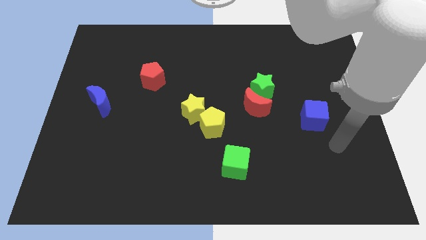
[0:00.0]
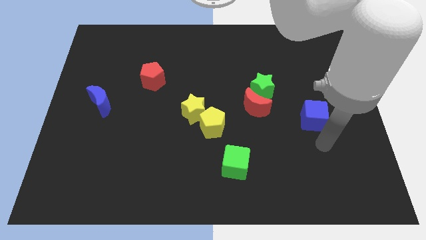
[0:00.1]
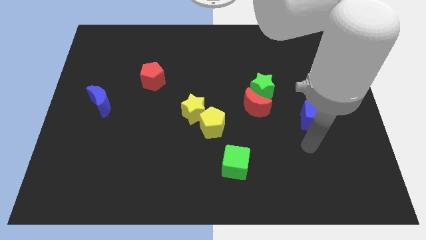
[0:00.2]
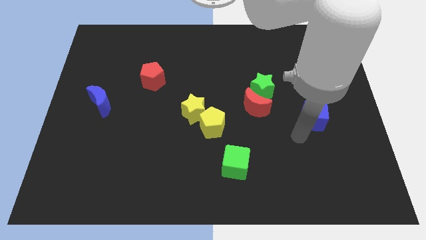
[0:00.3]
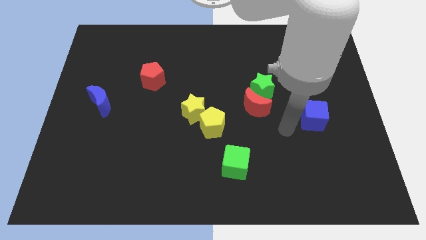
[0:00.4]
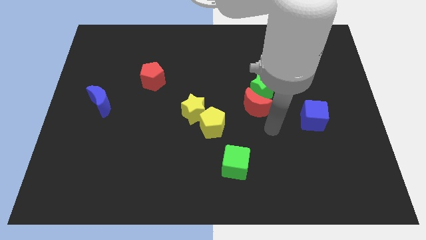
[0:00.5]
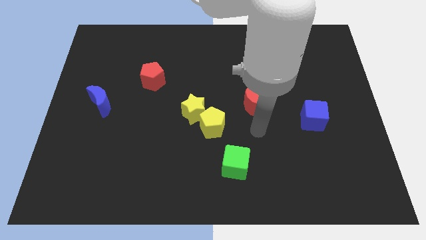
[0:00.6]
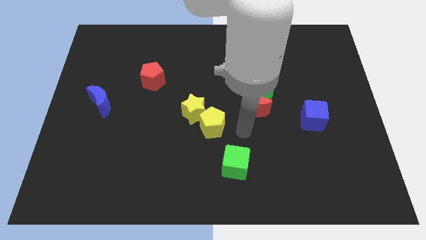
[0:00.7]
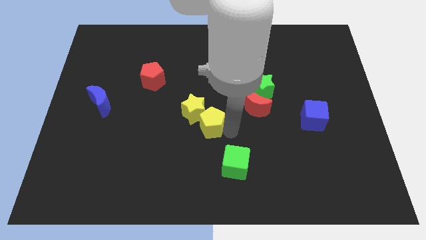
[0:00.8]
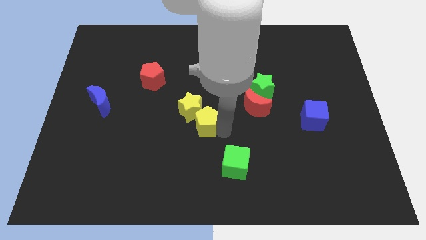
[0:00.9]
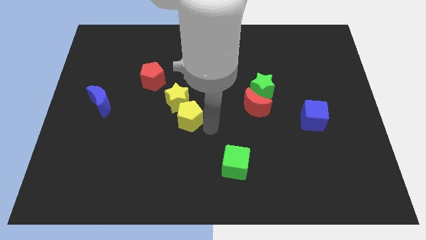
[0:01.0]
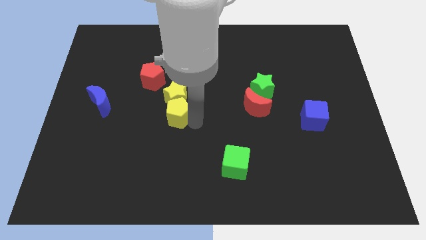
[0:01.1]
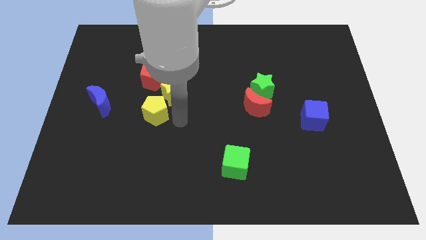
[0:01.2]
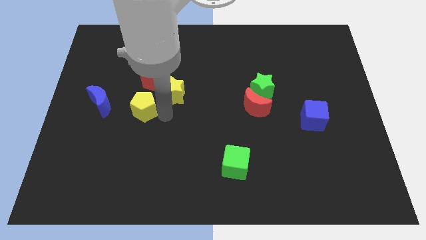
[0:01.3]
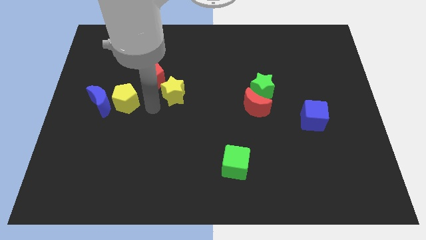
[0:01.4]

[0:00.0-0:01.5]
pull the yellow star apart from the yellow pentagon

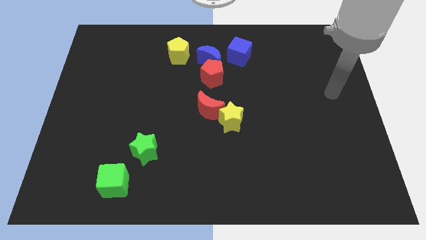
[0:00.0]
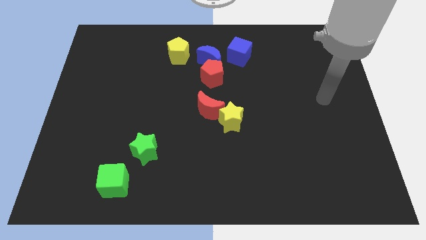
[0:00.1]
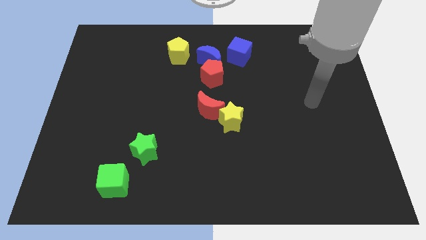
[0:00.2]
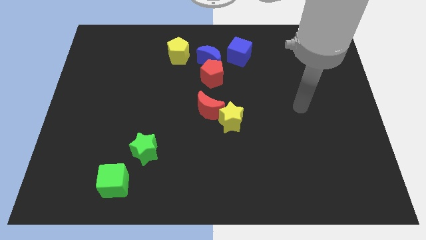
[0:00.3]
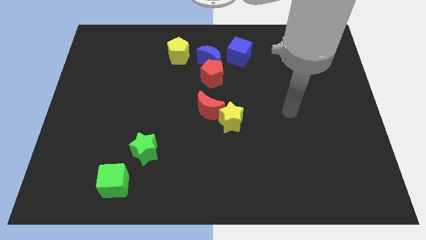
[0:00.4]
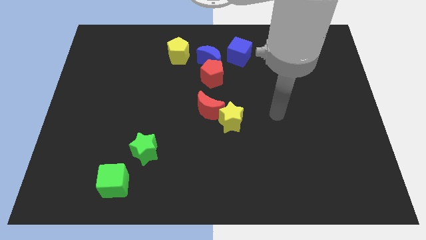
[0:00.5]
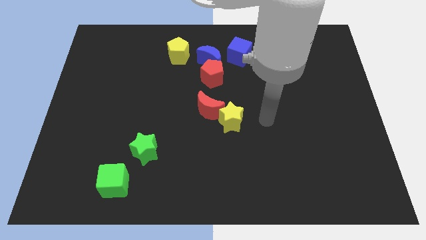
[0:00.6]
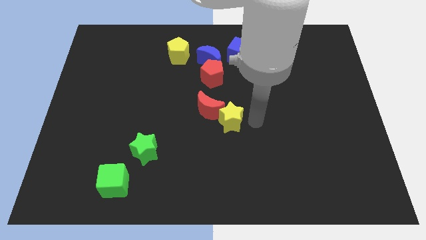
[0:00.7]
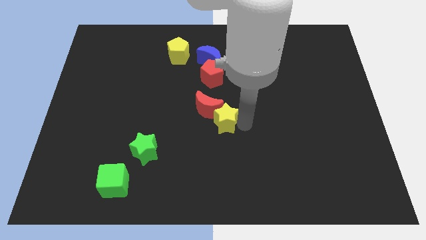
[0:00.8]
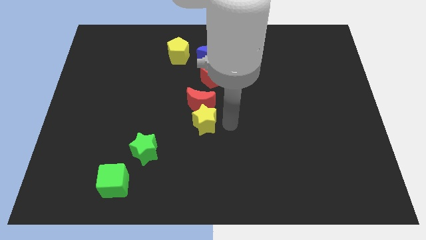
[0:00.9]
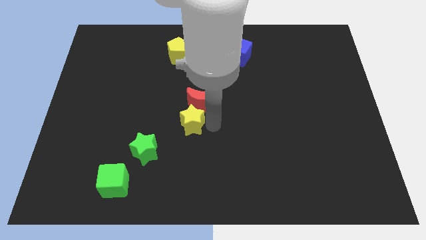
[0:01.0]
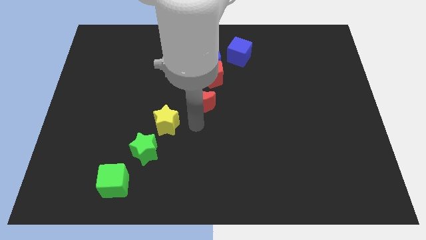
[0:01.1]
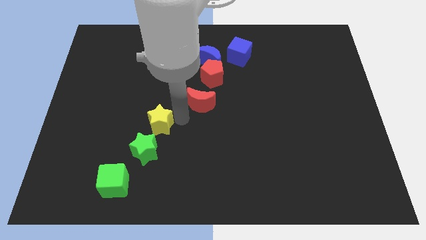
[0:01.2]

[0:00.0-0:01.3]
move the red moon away from the yellow star

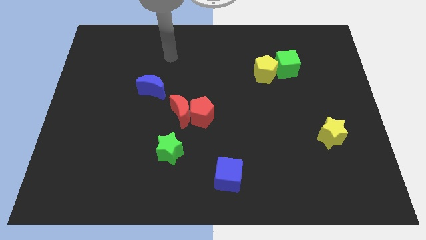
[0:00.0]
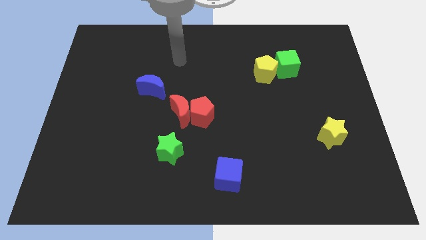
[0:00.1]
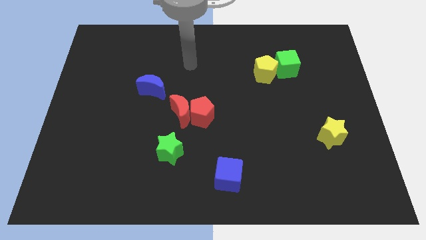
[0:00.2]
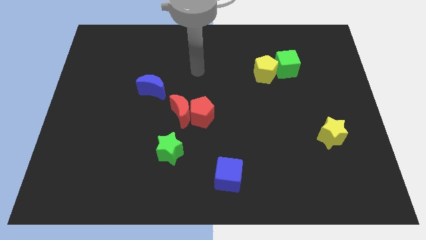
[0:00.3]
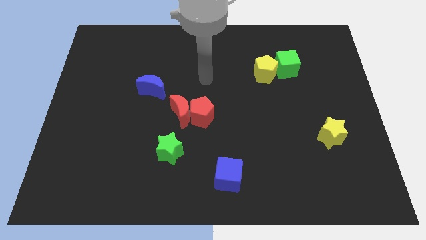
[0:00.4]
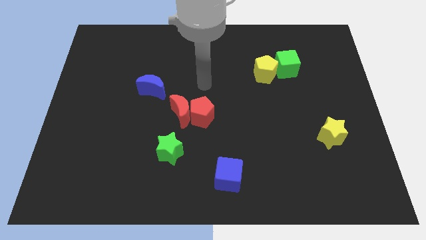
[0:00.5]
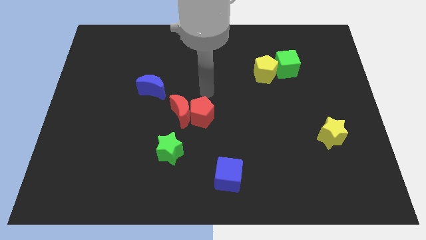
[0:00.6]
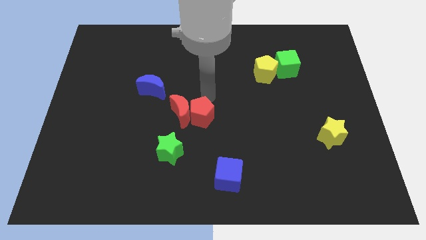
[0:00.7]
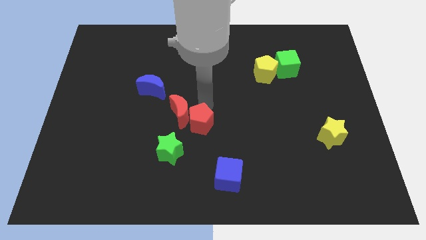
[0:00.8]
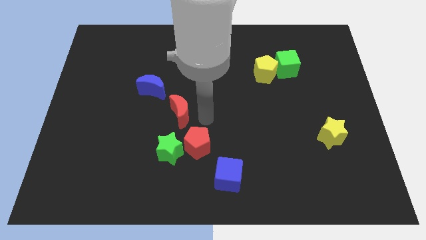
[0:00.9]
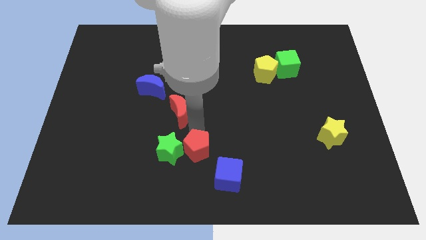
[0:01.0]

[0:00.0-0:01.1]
separate the red moon from the red pentagon

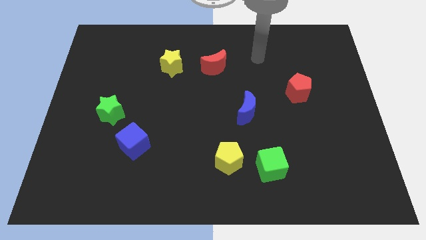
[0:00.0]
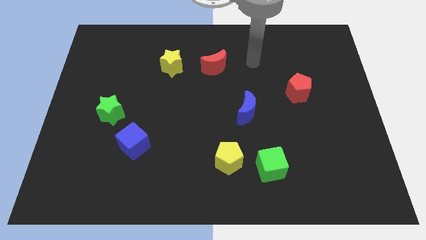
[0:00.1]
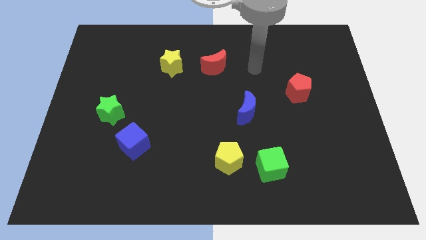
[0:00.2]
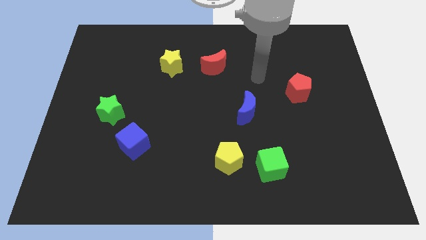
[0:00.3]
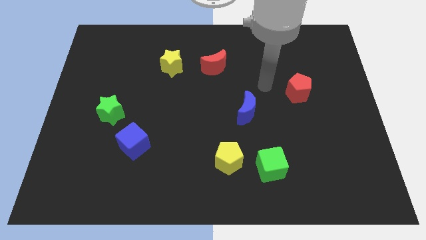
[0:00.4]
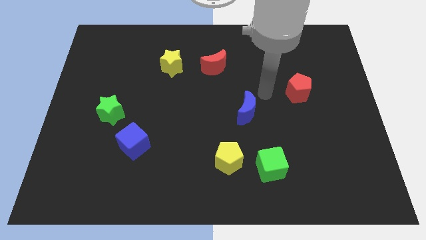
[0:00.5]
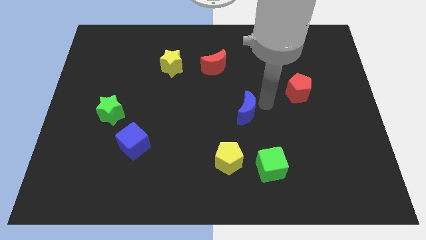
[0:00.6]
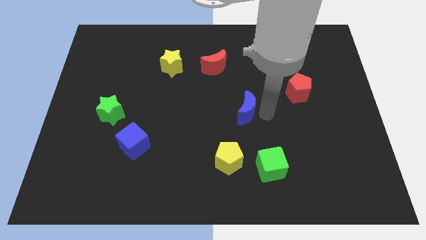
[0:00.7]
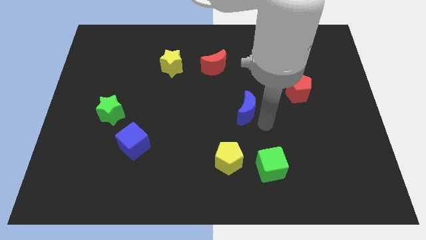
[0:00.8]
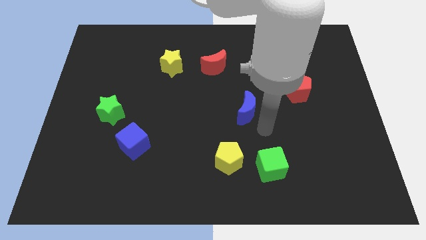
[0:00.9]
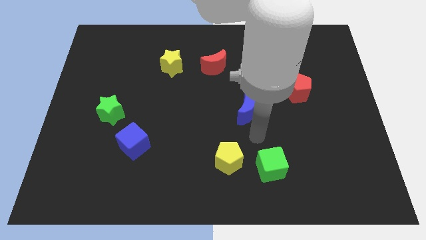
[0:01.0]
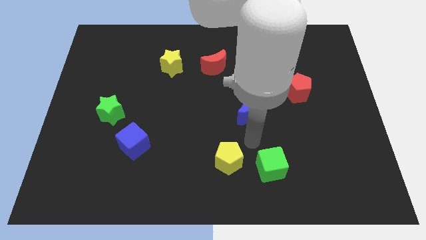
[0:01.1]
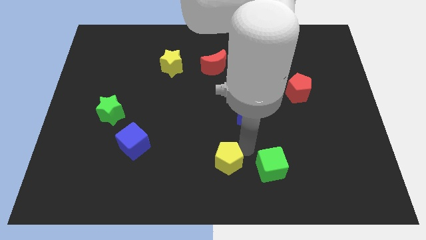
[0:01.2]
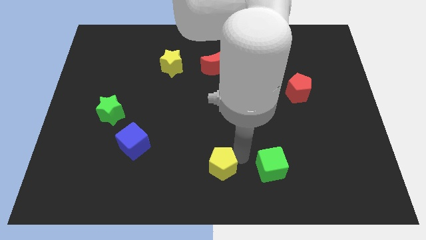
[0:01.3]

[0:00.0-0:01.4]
separate the green cube from the yellow pentagon

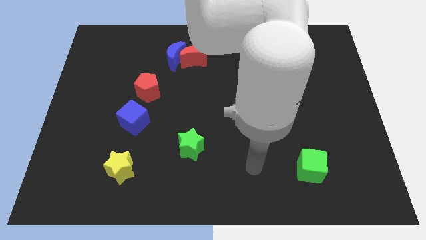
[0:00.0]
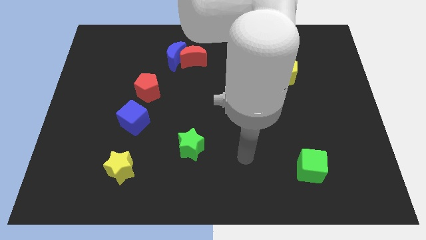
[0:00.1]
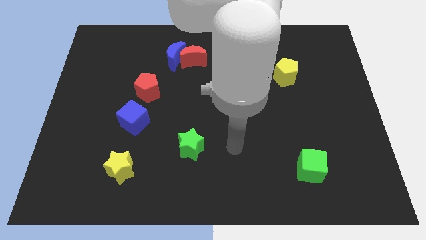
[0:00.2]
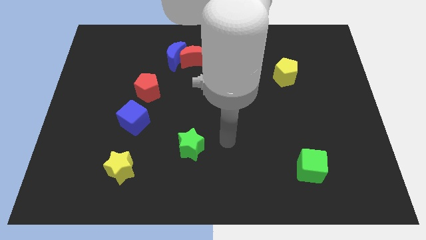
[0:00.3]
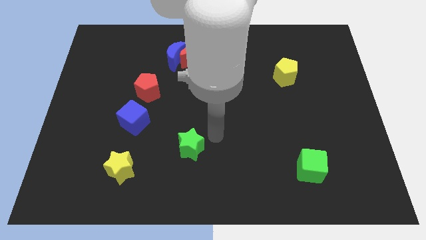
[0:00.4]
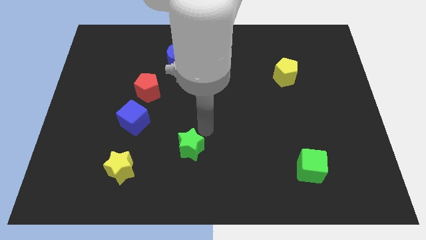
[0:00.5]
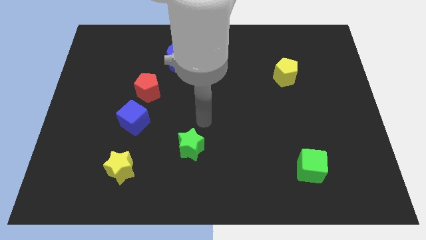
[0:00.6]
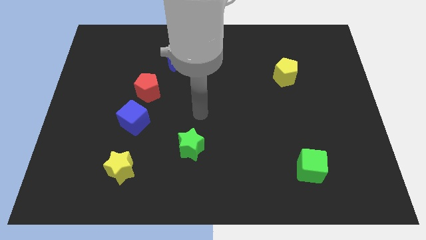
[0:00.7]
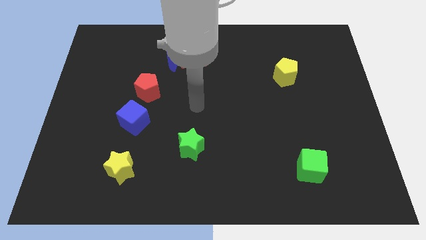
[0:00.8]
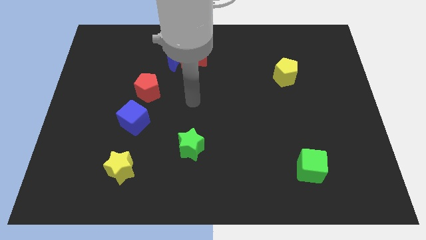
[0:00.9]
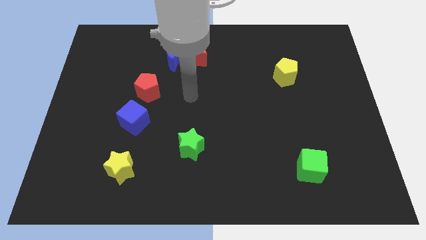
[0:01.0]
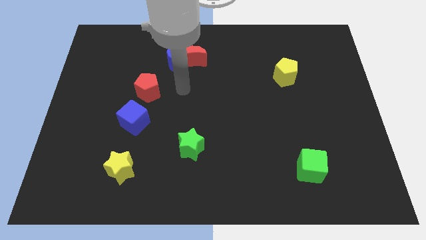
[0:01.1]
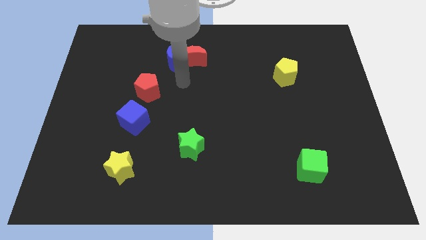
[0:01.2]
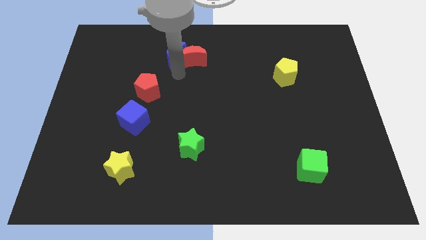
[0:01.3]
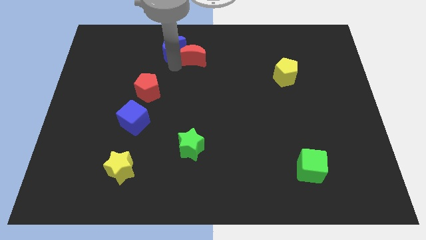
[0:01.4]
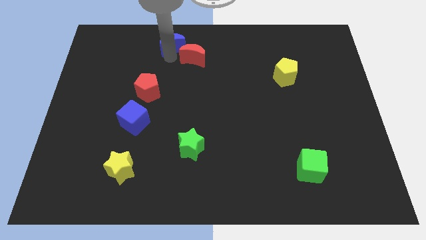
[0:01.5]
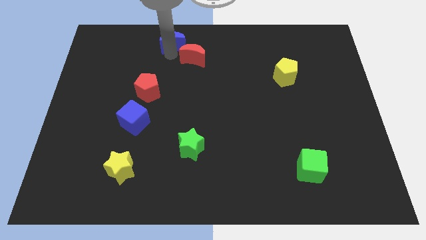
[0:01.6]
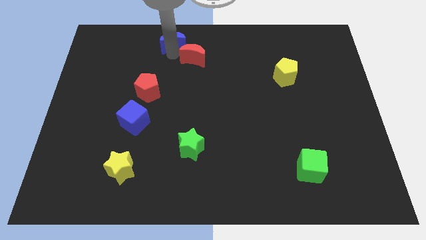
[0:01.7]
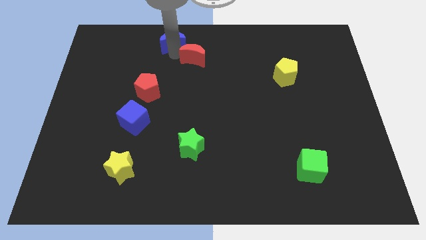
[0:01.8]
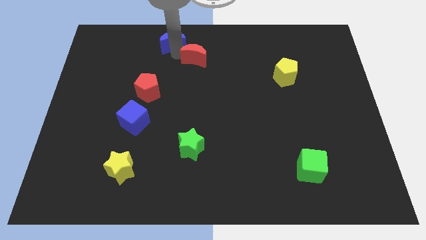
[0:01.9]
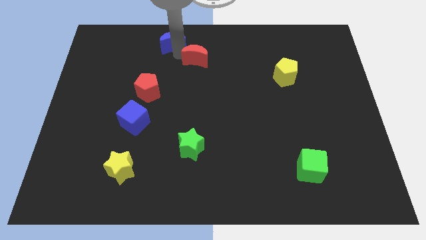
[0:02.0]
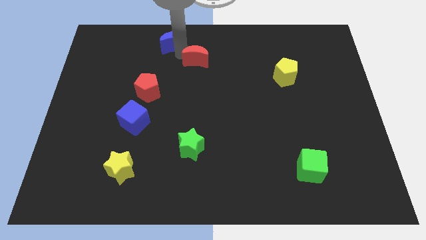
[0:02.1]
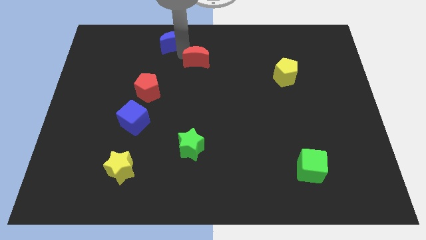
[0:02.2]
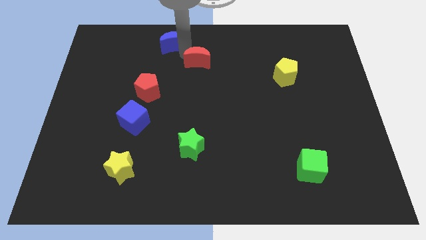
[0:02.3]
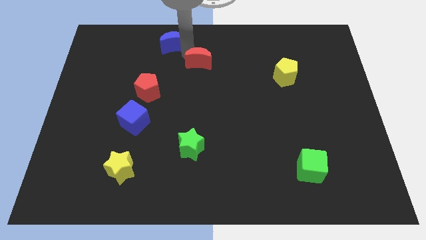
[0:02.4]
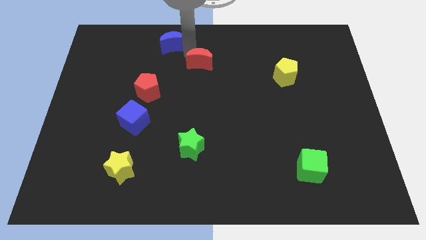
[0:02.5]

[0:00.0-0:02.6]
pull the red moon apart from the blue moon

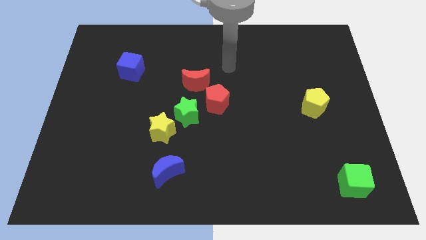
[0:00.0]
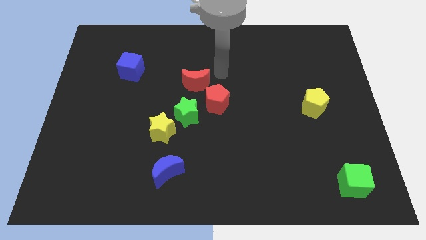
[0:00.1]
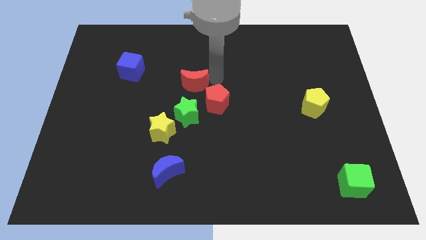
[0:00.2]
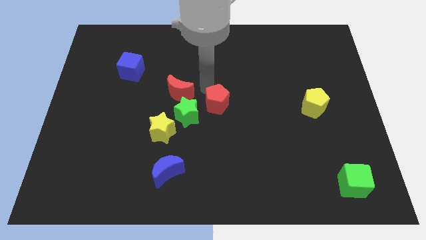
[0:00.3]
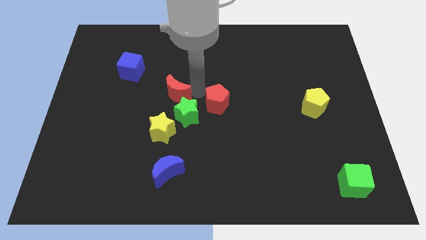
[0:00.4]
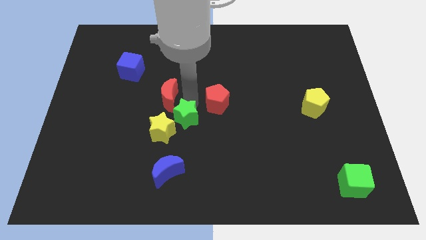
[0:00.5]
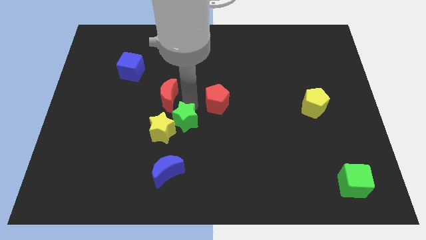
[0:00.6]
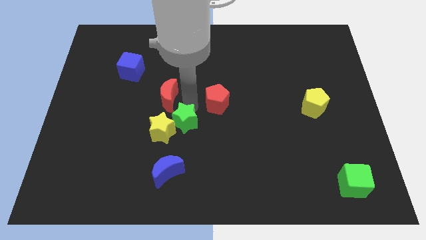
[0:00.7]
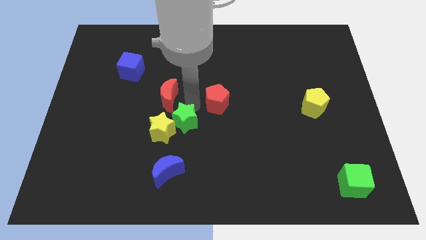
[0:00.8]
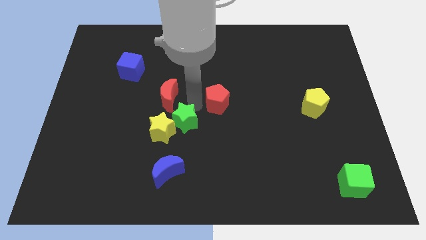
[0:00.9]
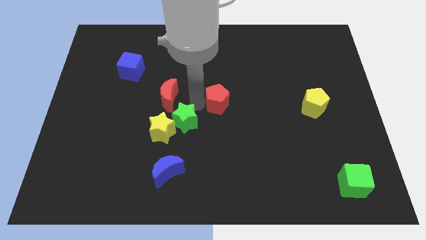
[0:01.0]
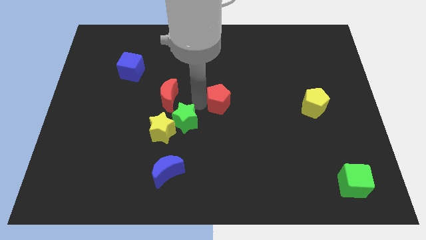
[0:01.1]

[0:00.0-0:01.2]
separate the red pentagon from the green star and red moon

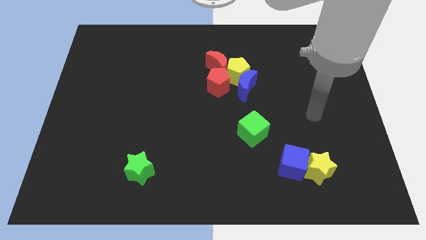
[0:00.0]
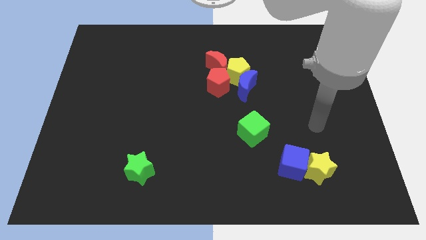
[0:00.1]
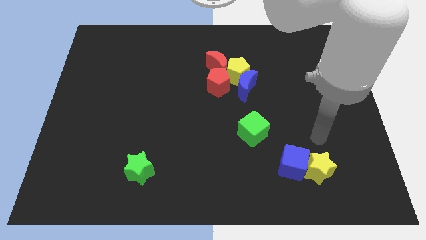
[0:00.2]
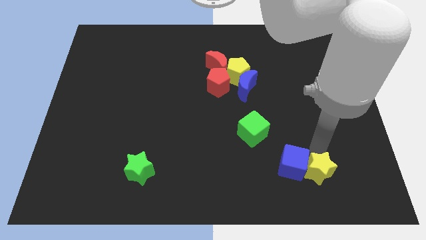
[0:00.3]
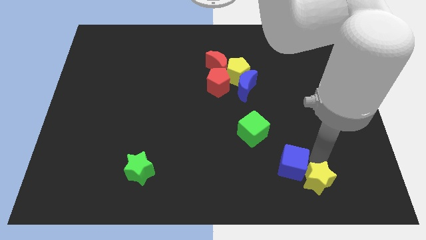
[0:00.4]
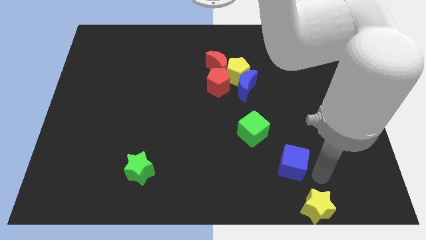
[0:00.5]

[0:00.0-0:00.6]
move the blue cube away from the yellow star
